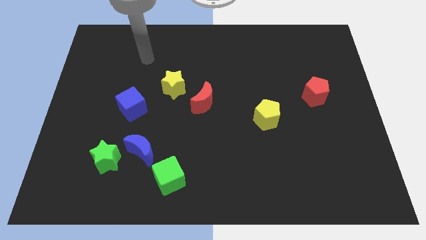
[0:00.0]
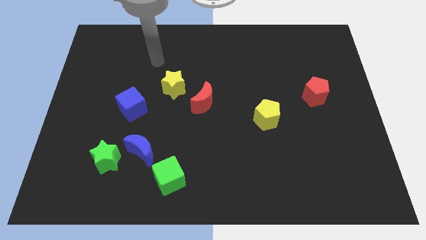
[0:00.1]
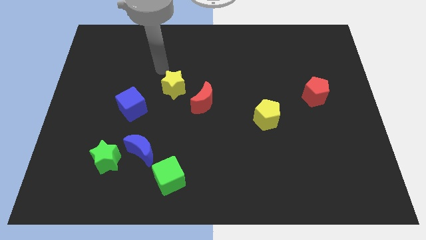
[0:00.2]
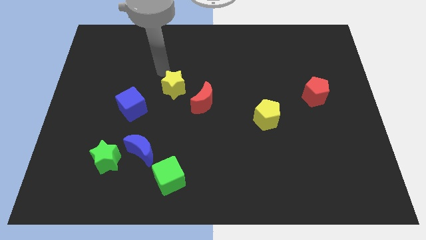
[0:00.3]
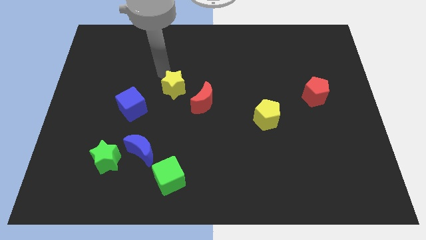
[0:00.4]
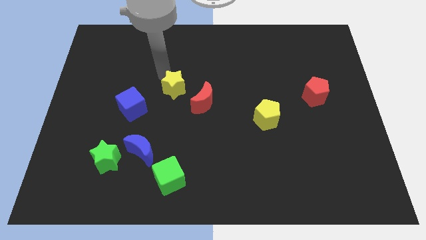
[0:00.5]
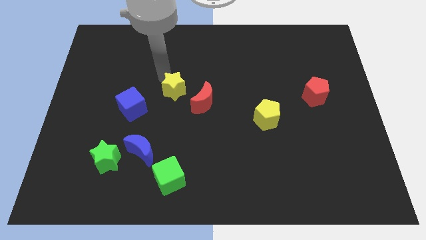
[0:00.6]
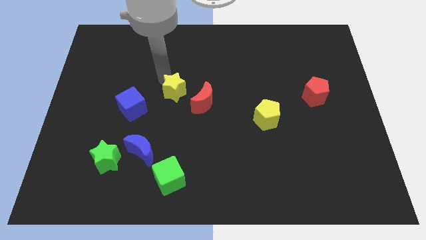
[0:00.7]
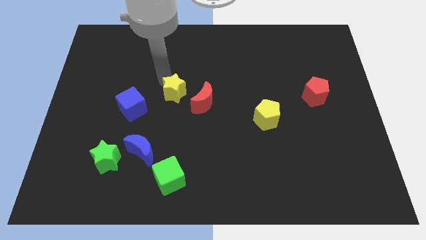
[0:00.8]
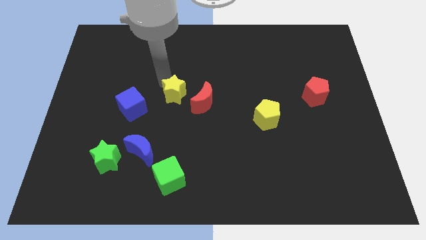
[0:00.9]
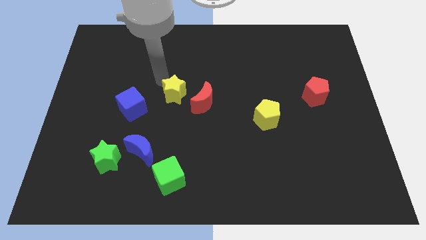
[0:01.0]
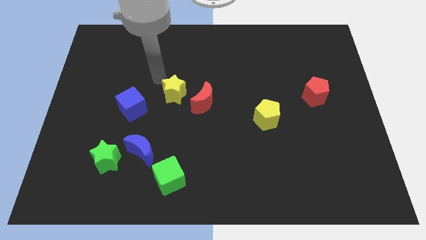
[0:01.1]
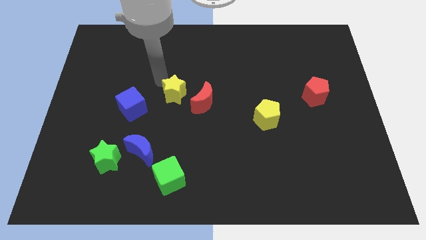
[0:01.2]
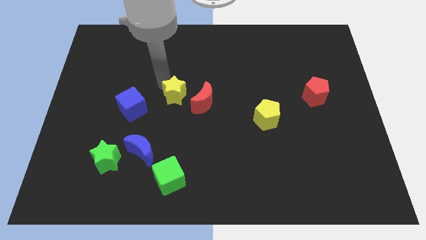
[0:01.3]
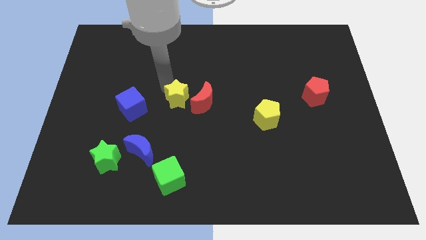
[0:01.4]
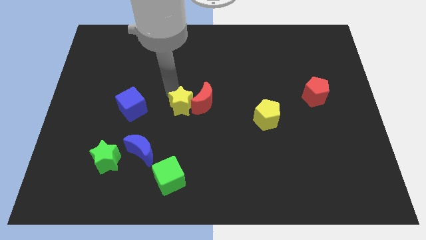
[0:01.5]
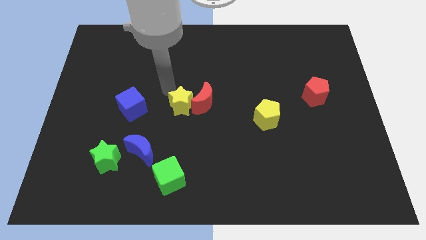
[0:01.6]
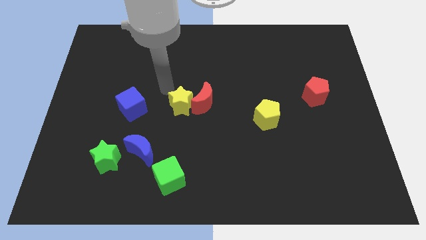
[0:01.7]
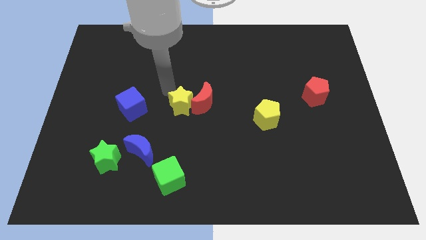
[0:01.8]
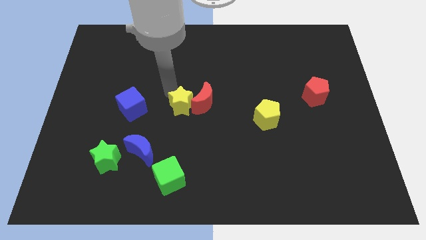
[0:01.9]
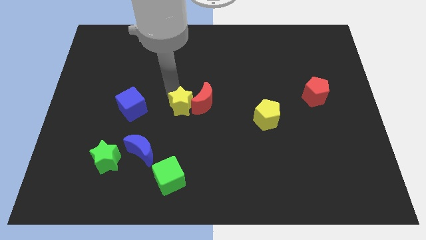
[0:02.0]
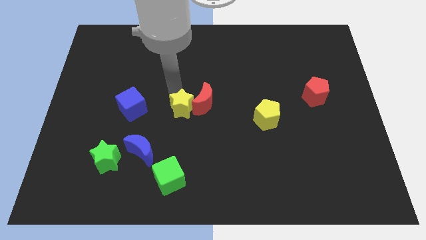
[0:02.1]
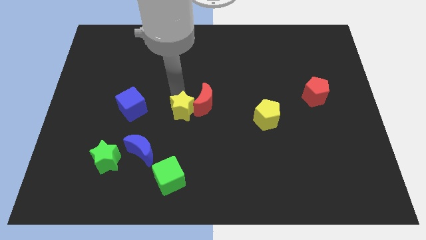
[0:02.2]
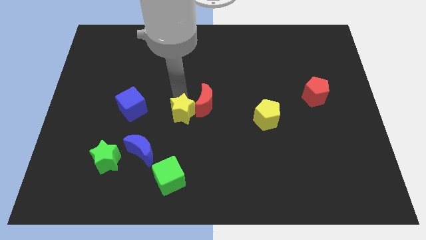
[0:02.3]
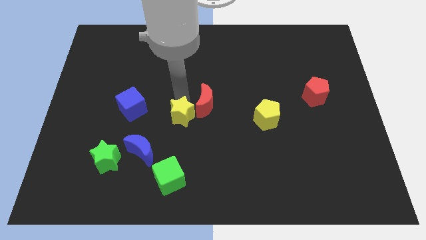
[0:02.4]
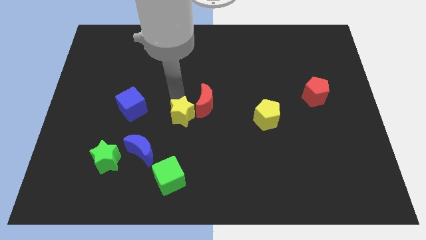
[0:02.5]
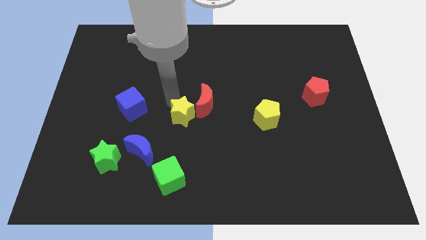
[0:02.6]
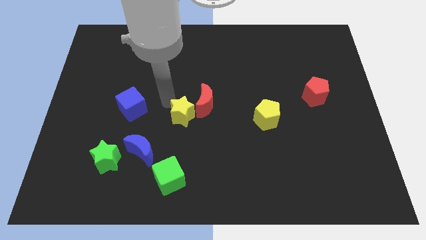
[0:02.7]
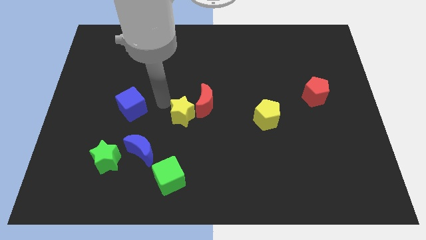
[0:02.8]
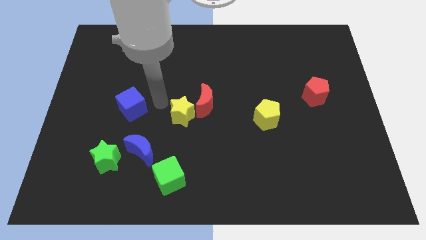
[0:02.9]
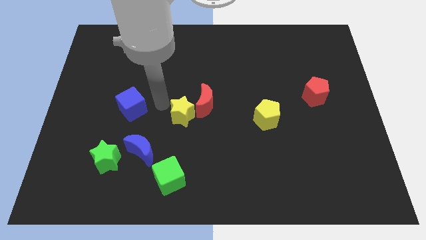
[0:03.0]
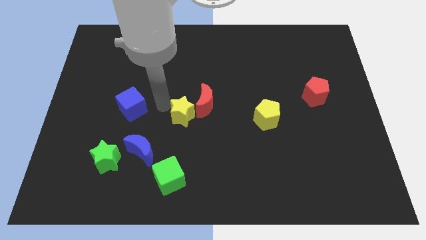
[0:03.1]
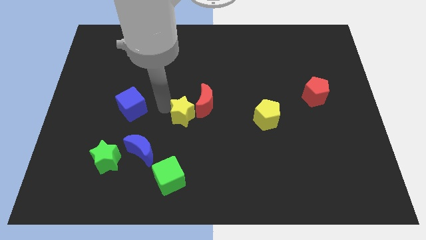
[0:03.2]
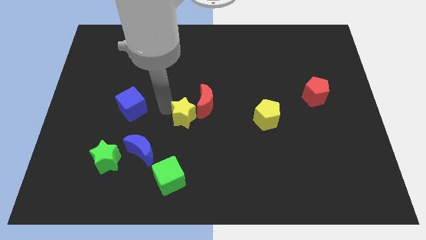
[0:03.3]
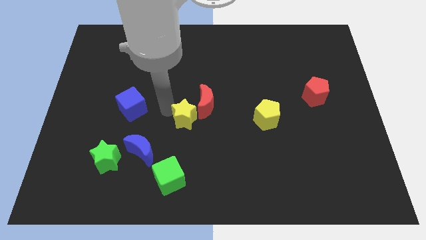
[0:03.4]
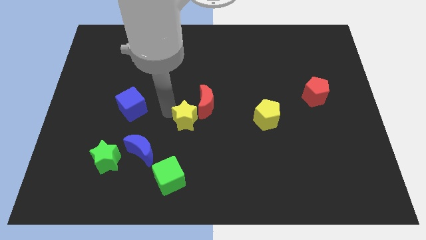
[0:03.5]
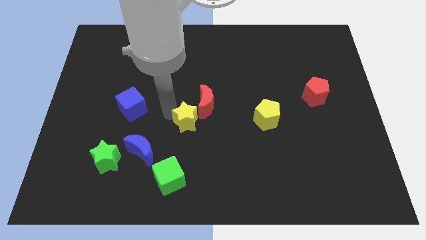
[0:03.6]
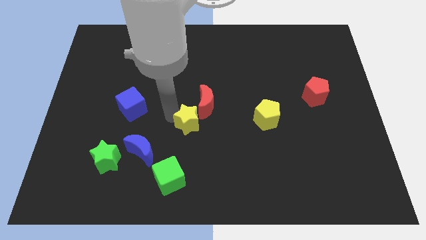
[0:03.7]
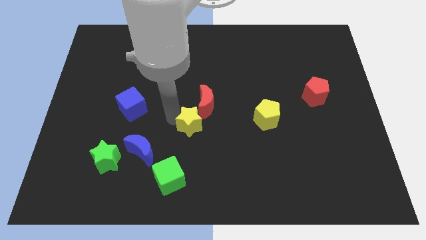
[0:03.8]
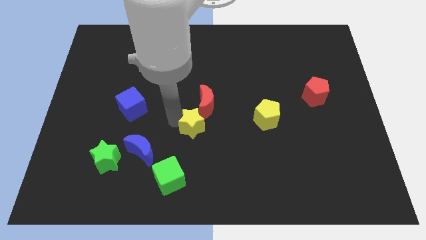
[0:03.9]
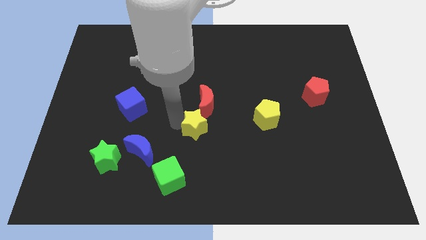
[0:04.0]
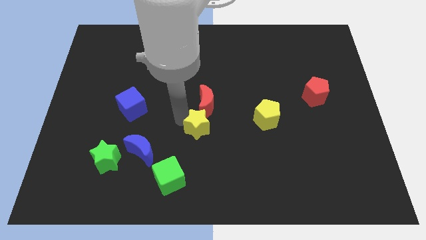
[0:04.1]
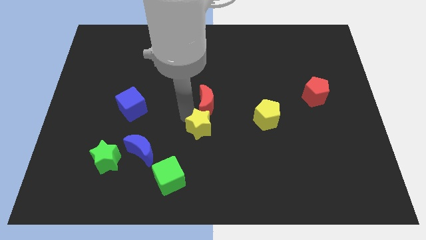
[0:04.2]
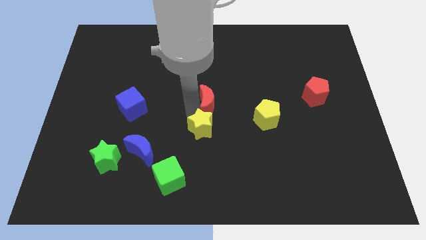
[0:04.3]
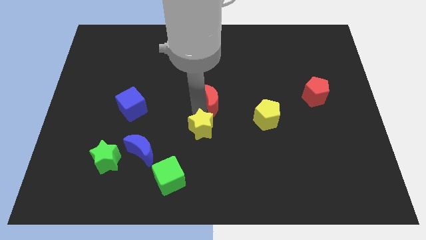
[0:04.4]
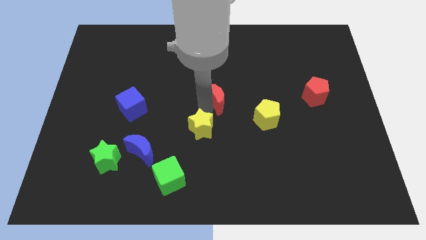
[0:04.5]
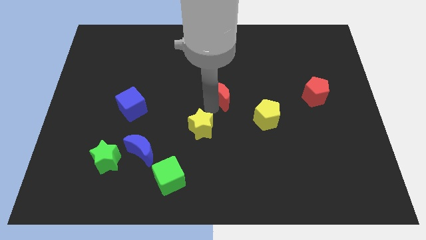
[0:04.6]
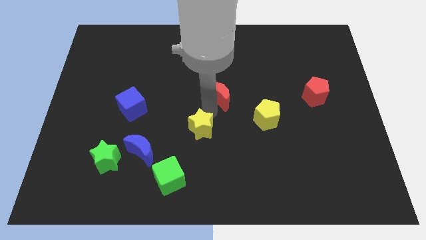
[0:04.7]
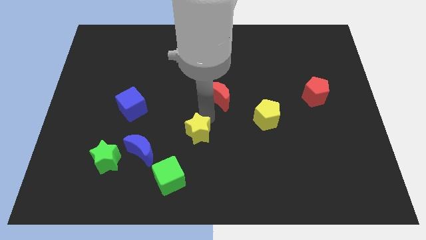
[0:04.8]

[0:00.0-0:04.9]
slide the yellow star to the right side of the blue moon

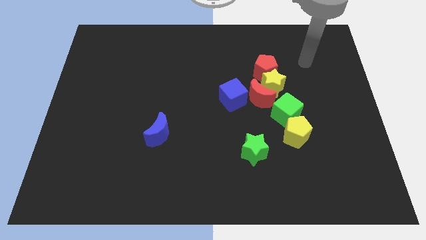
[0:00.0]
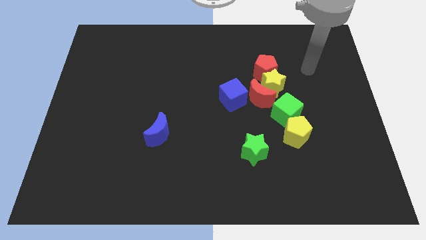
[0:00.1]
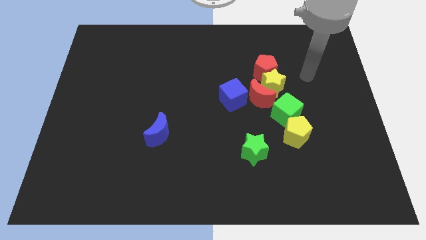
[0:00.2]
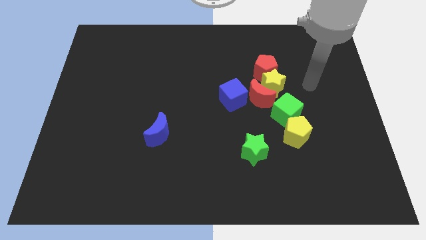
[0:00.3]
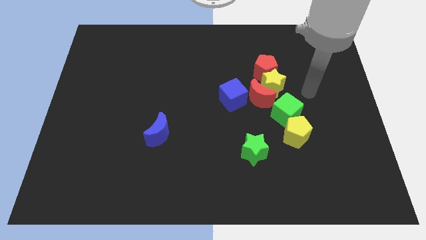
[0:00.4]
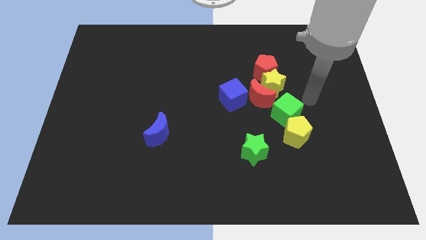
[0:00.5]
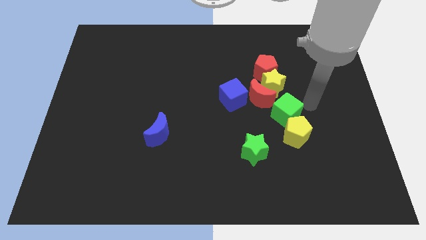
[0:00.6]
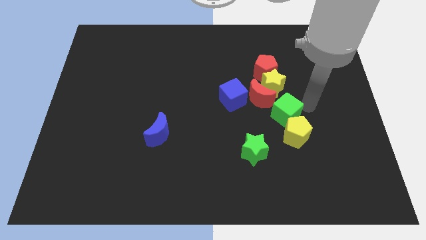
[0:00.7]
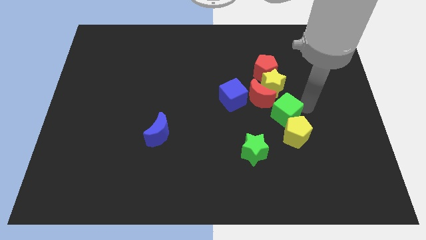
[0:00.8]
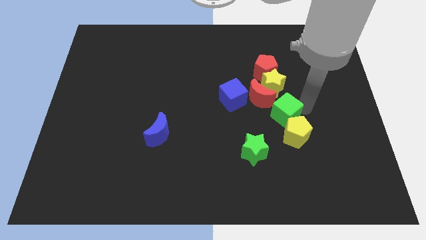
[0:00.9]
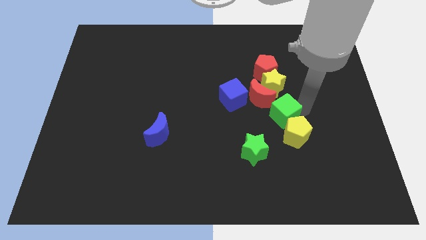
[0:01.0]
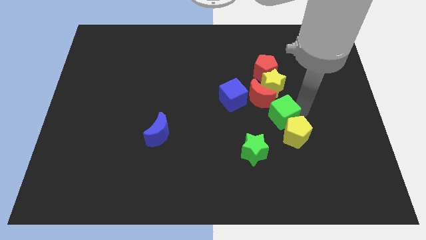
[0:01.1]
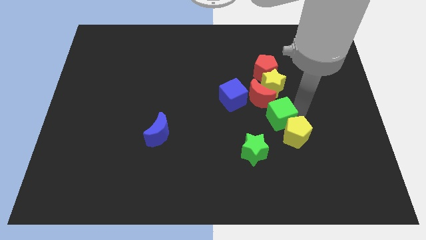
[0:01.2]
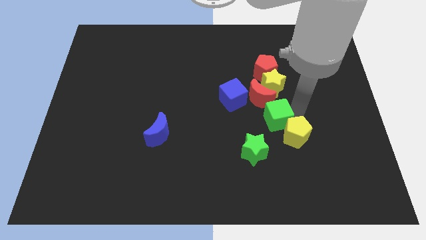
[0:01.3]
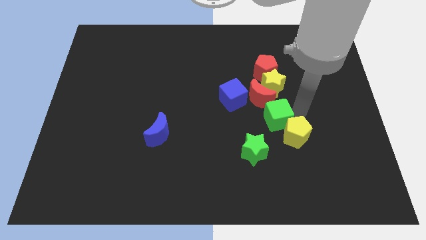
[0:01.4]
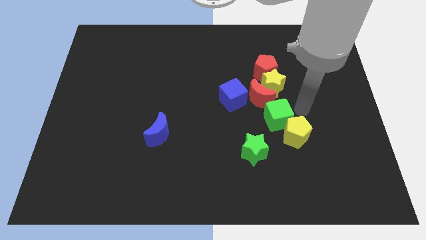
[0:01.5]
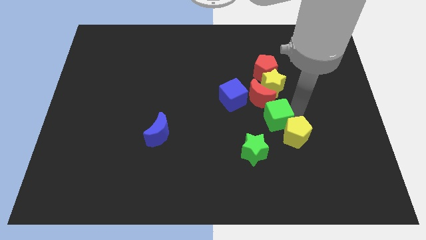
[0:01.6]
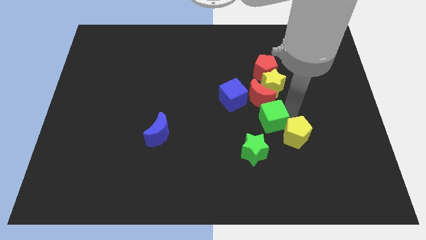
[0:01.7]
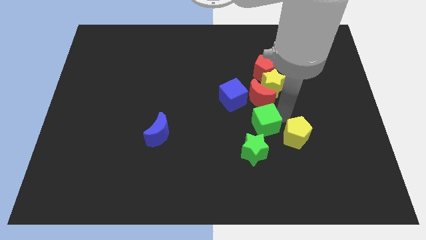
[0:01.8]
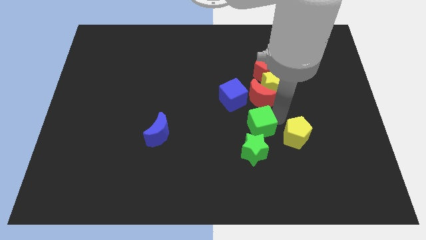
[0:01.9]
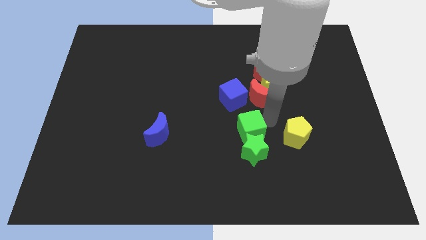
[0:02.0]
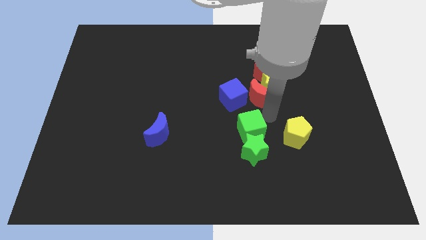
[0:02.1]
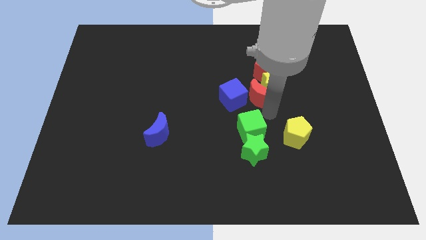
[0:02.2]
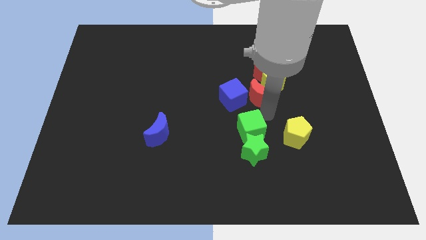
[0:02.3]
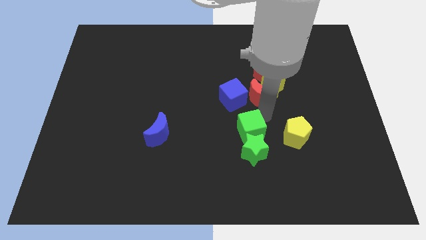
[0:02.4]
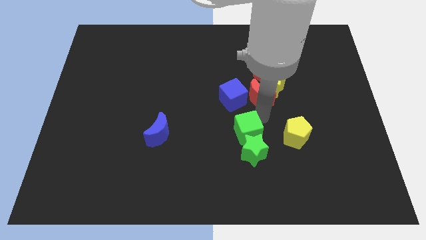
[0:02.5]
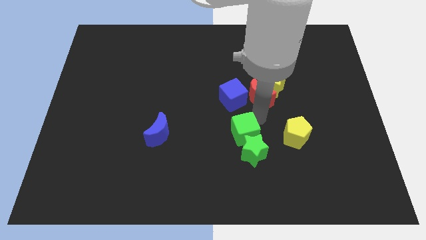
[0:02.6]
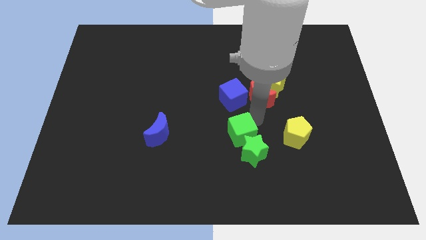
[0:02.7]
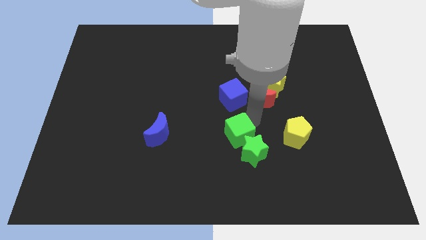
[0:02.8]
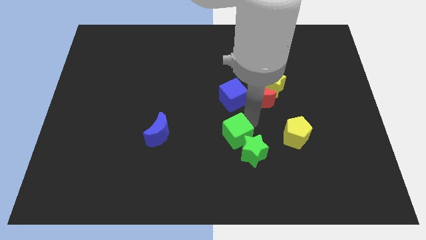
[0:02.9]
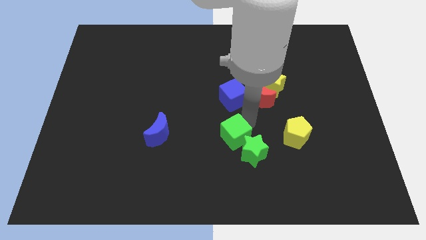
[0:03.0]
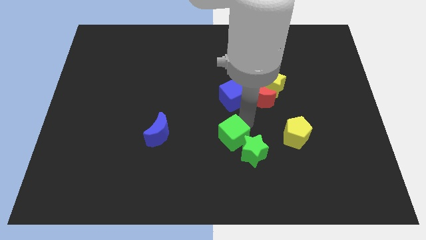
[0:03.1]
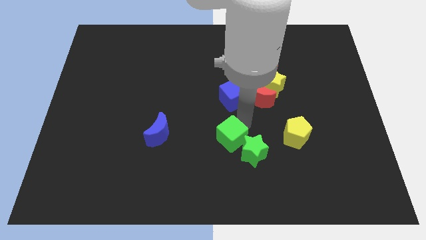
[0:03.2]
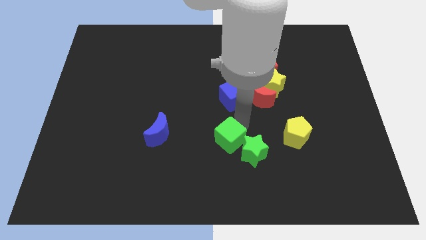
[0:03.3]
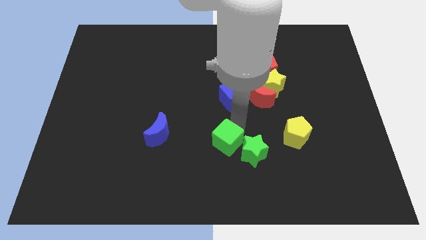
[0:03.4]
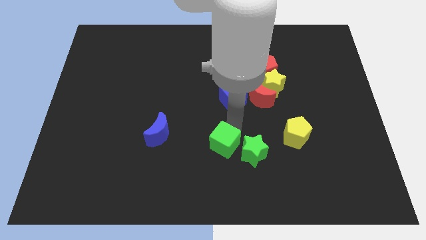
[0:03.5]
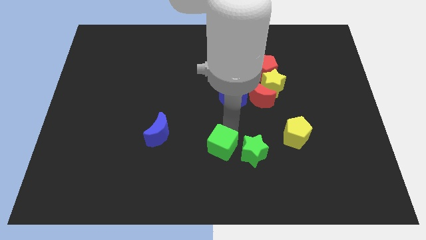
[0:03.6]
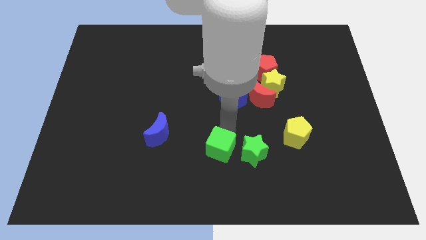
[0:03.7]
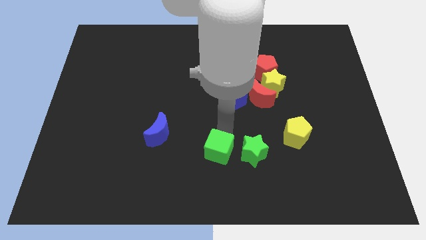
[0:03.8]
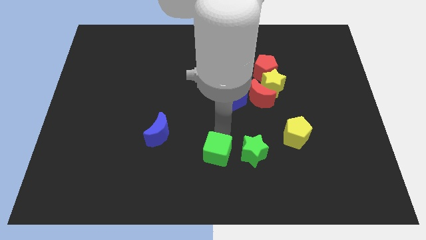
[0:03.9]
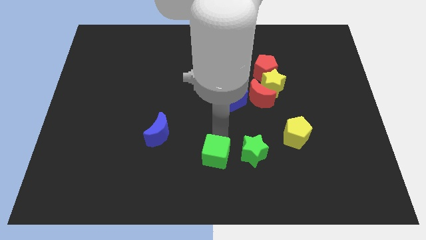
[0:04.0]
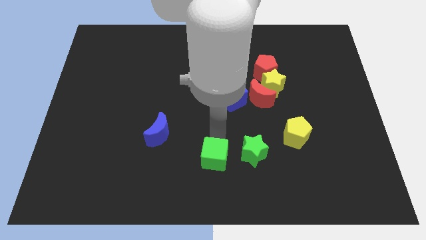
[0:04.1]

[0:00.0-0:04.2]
slide the green cube to the bottom left of the green star
